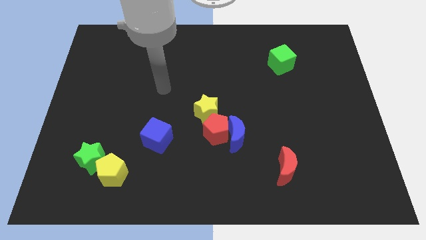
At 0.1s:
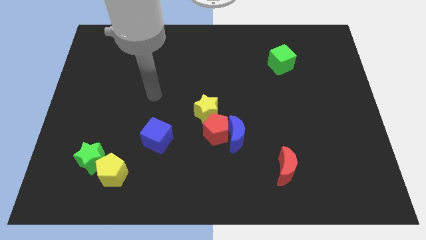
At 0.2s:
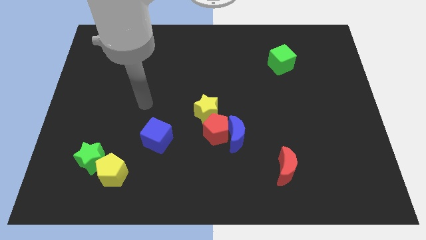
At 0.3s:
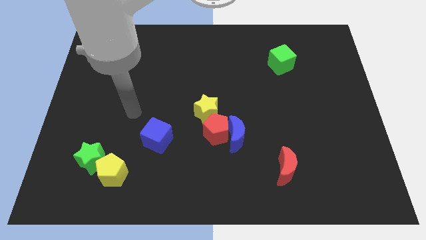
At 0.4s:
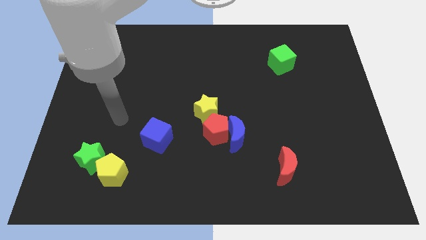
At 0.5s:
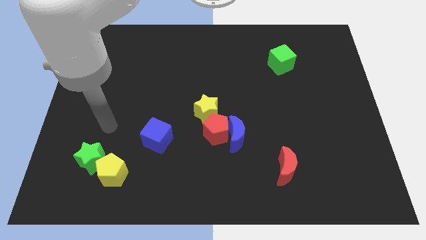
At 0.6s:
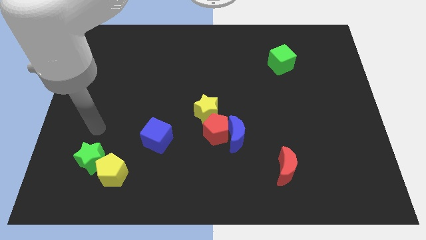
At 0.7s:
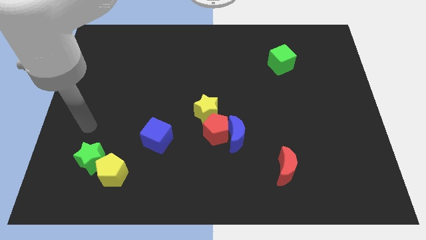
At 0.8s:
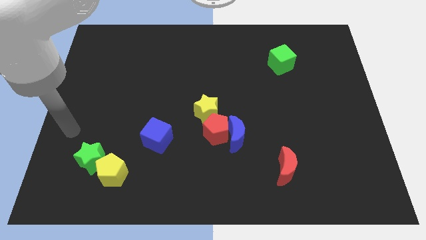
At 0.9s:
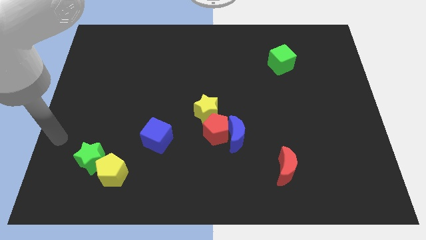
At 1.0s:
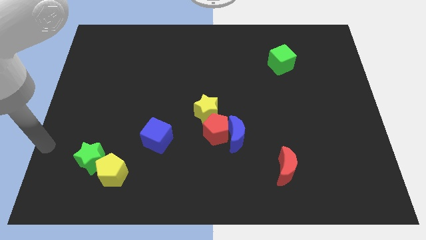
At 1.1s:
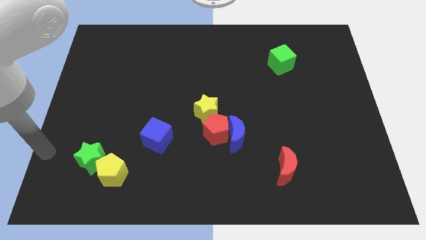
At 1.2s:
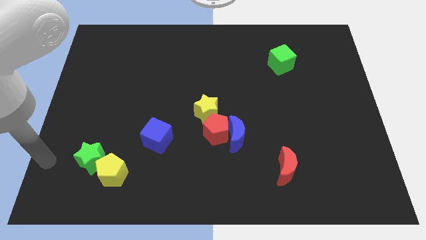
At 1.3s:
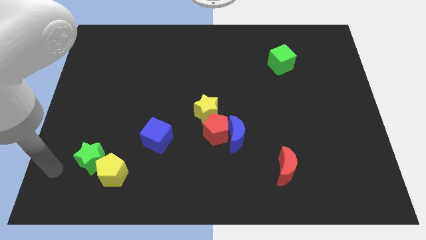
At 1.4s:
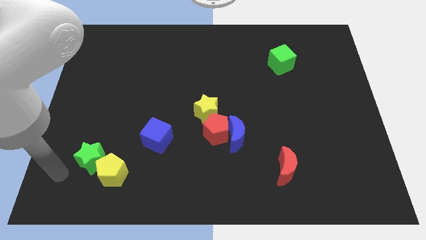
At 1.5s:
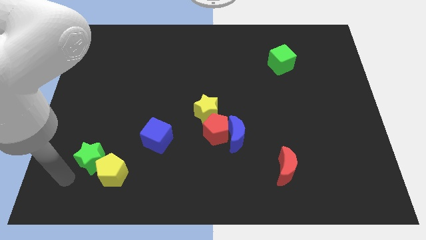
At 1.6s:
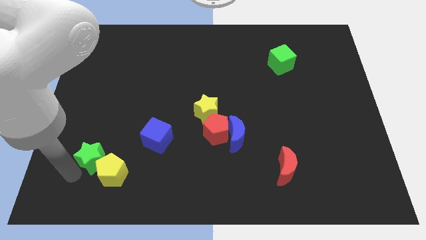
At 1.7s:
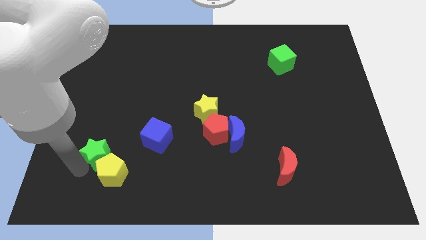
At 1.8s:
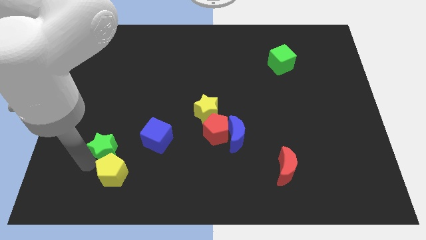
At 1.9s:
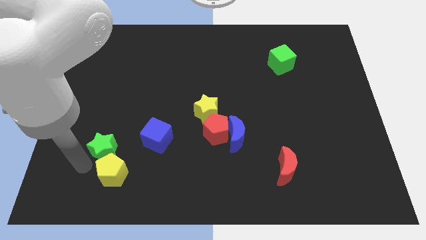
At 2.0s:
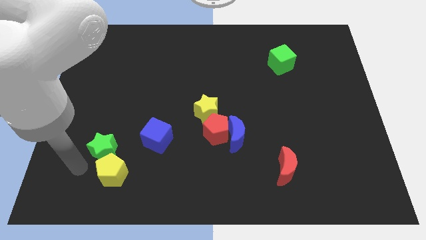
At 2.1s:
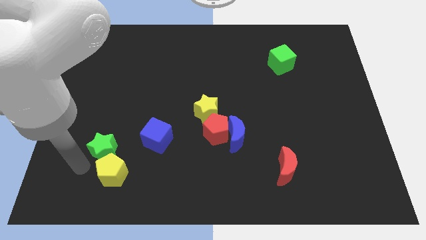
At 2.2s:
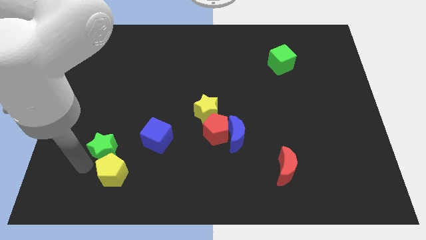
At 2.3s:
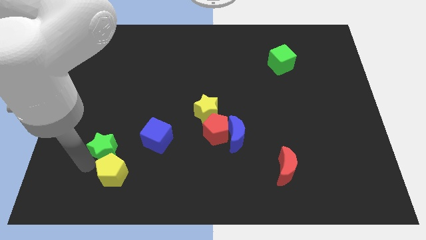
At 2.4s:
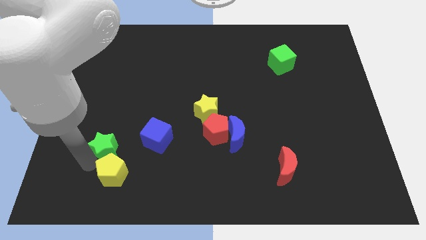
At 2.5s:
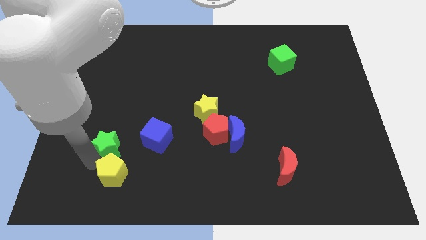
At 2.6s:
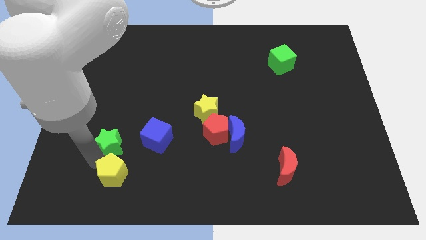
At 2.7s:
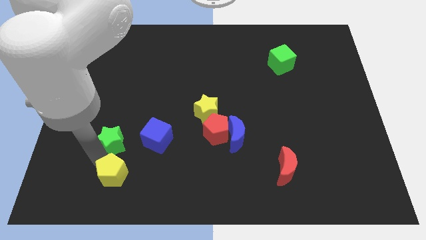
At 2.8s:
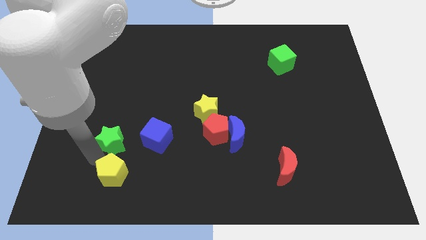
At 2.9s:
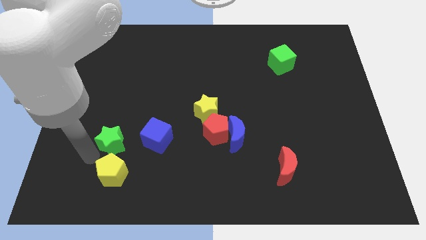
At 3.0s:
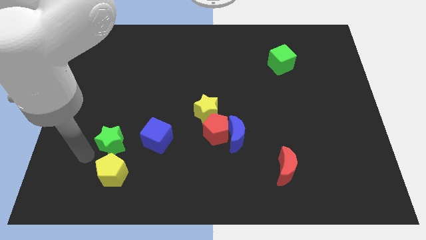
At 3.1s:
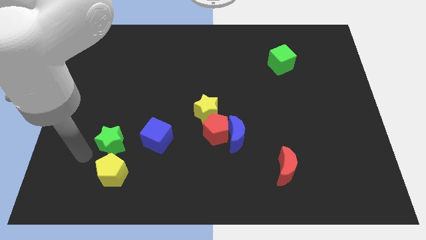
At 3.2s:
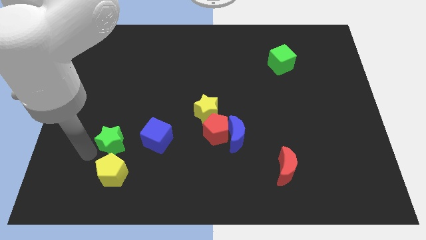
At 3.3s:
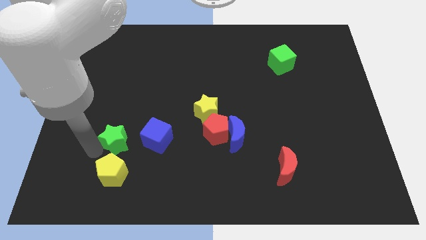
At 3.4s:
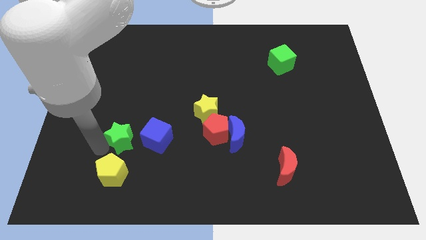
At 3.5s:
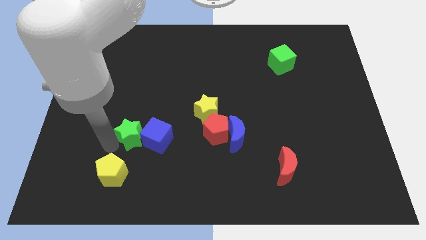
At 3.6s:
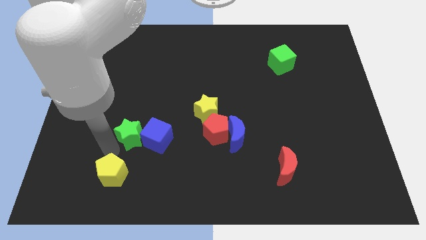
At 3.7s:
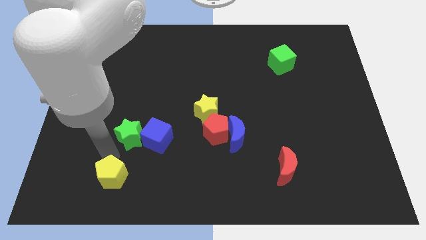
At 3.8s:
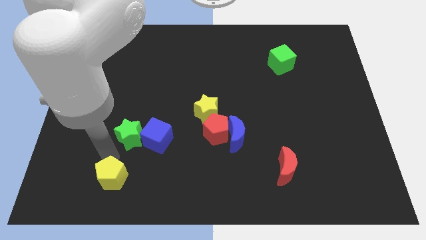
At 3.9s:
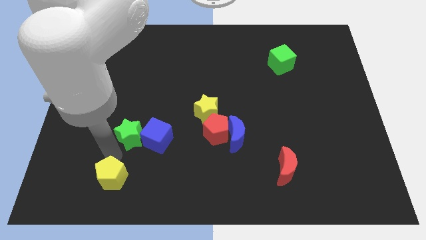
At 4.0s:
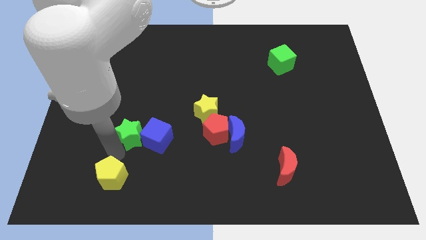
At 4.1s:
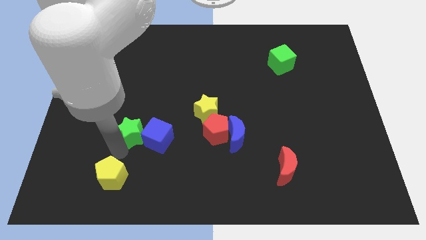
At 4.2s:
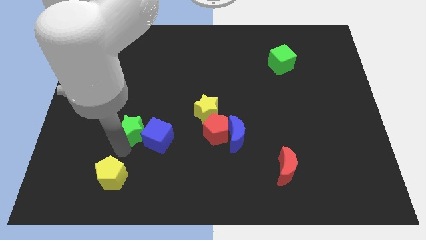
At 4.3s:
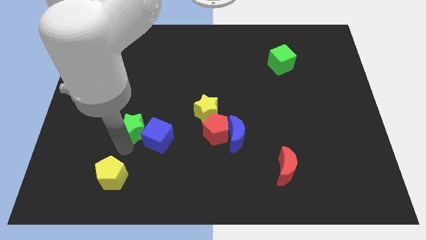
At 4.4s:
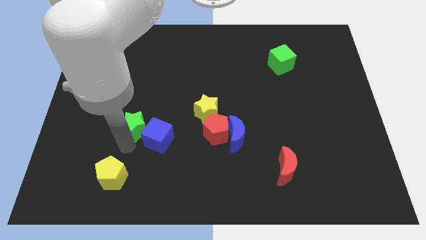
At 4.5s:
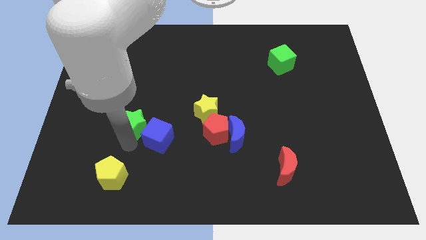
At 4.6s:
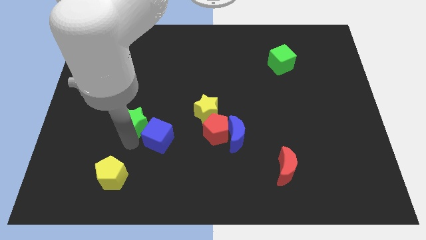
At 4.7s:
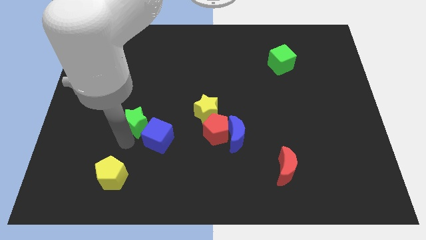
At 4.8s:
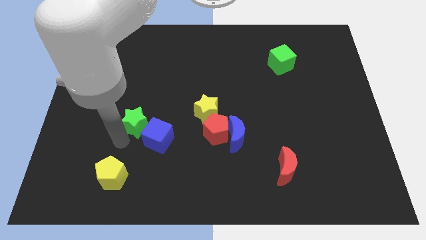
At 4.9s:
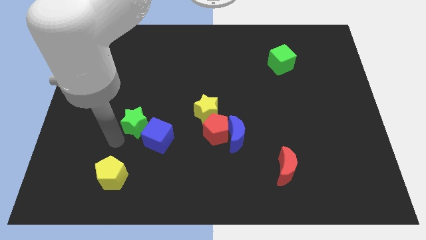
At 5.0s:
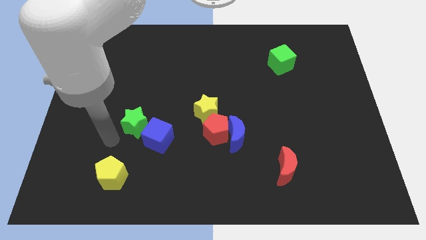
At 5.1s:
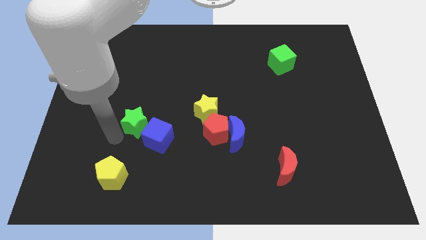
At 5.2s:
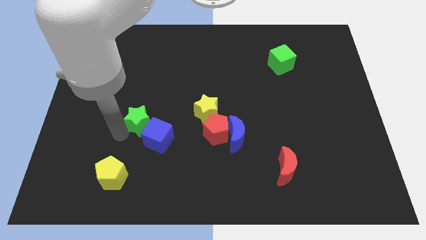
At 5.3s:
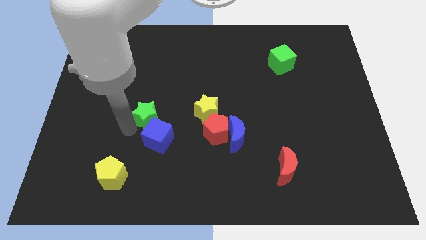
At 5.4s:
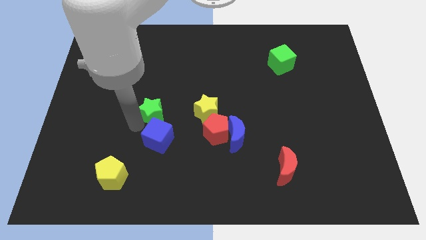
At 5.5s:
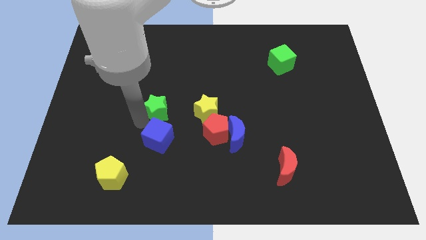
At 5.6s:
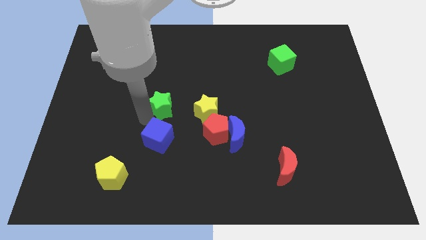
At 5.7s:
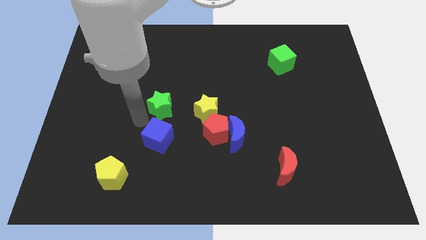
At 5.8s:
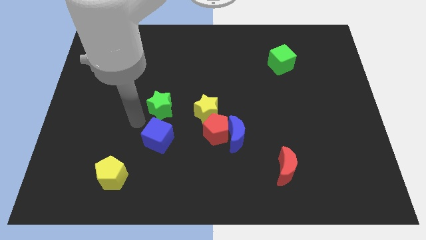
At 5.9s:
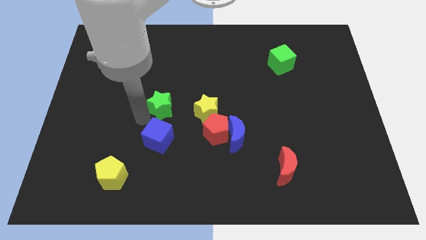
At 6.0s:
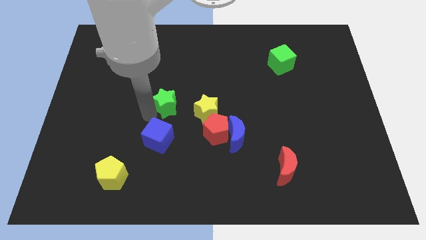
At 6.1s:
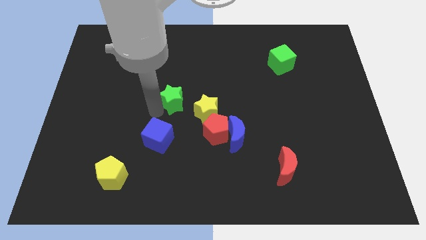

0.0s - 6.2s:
put the green star to the top left of the yellow star

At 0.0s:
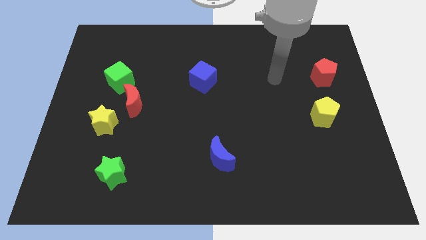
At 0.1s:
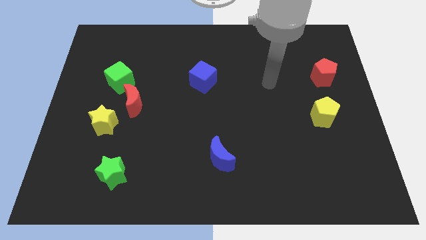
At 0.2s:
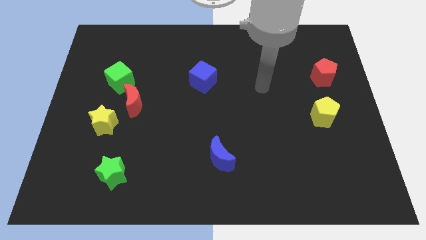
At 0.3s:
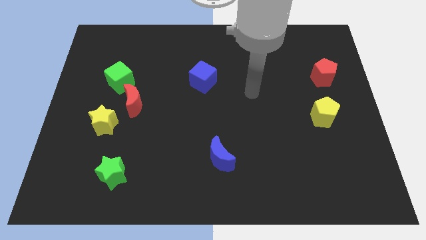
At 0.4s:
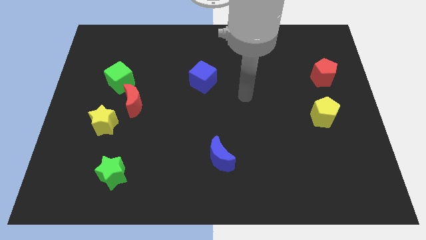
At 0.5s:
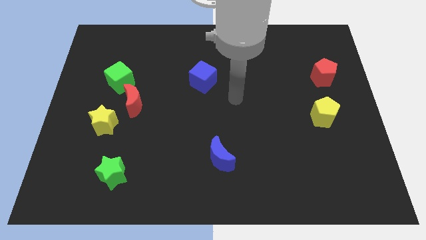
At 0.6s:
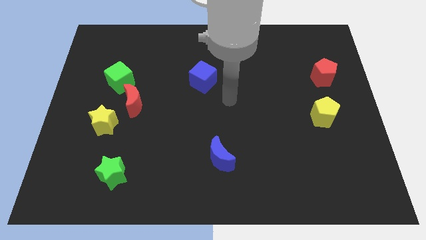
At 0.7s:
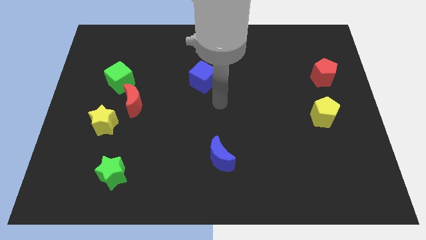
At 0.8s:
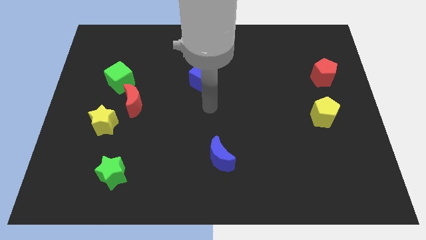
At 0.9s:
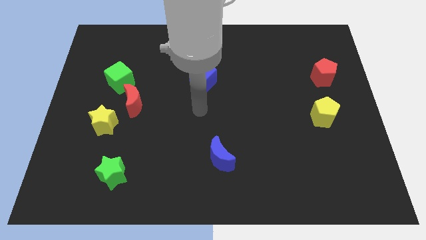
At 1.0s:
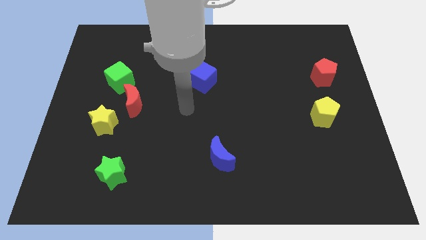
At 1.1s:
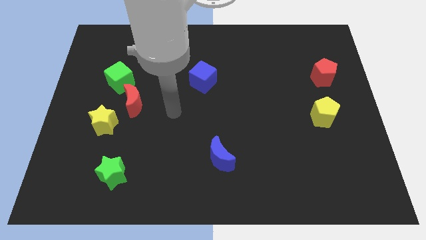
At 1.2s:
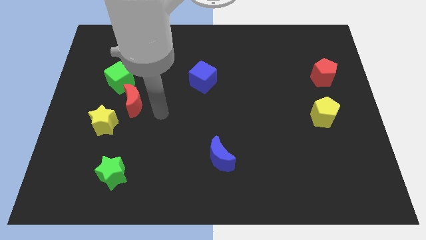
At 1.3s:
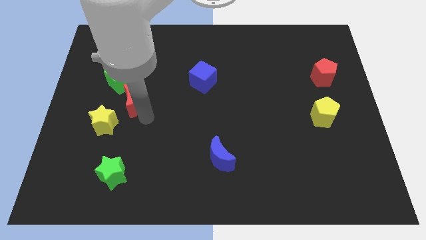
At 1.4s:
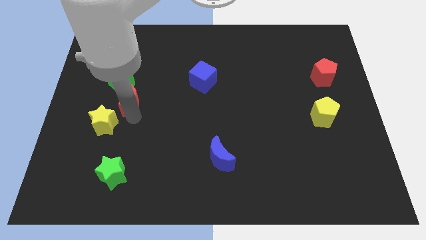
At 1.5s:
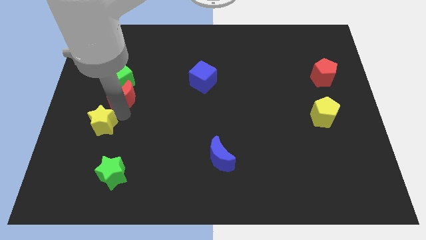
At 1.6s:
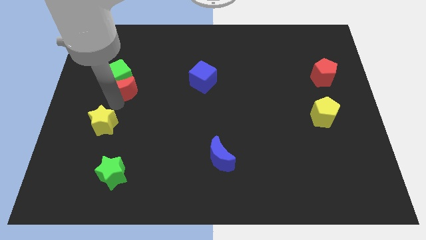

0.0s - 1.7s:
put the green cube diagonally up and to the right of the red moon
